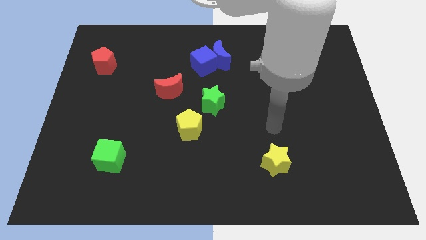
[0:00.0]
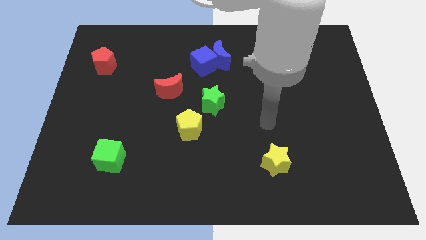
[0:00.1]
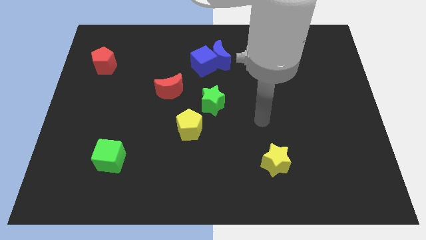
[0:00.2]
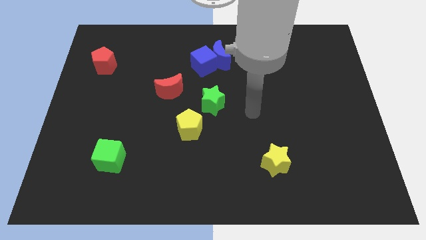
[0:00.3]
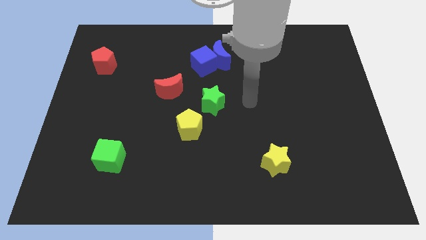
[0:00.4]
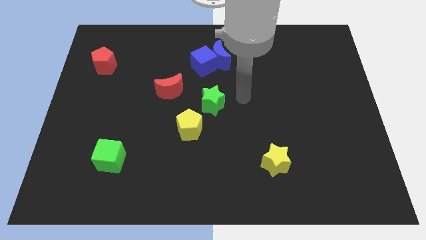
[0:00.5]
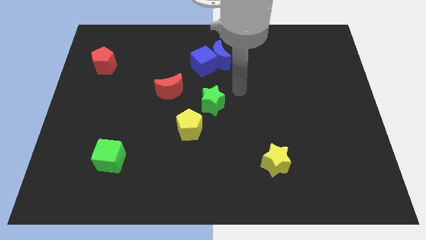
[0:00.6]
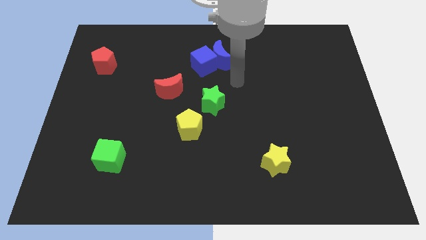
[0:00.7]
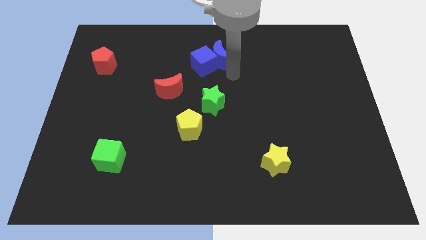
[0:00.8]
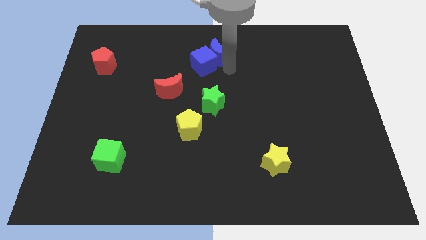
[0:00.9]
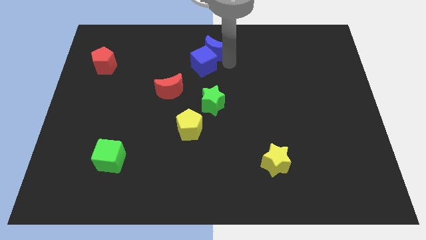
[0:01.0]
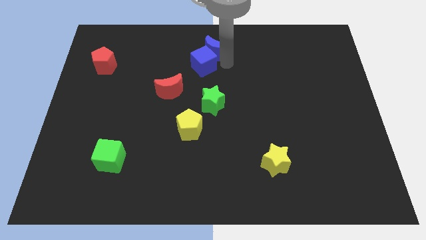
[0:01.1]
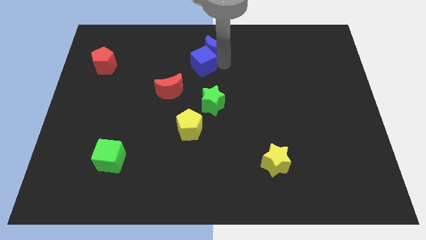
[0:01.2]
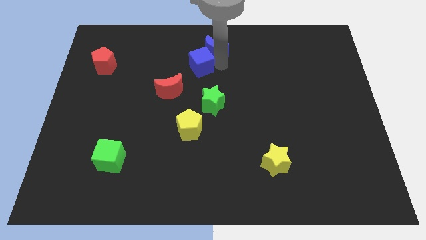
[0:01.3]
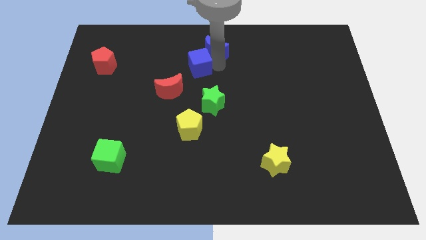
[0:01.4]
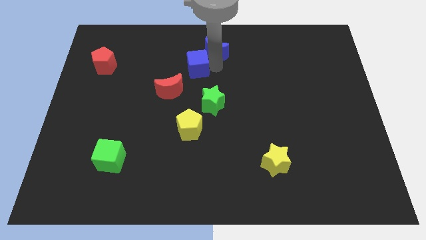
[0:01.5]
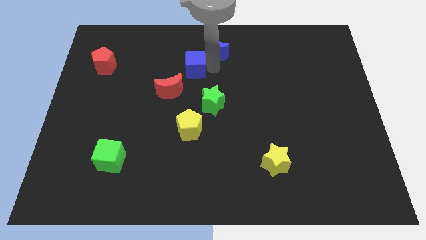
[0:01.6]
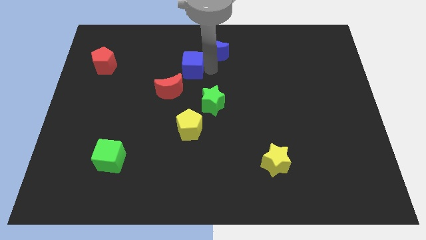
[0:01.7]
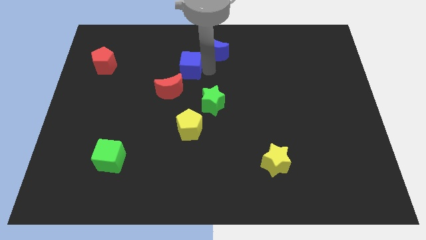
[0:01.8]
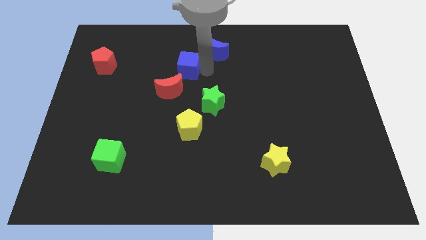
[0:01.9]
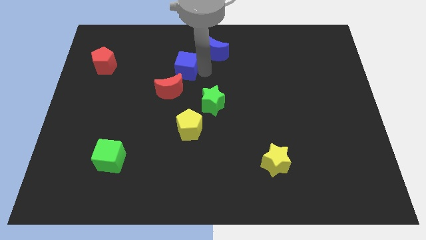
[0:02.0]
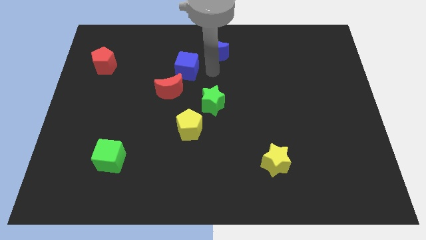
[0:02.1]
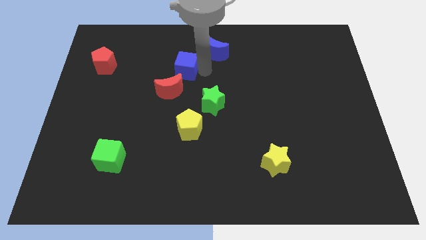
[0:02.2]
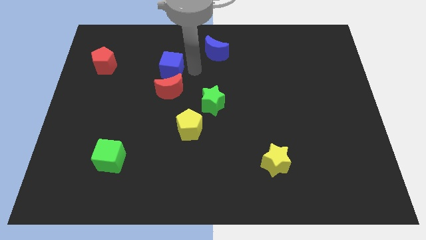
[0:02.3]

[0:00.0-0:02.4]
slightly move the blue cube left

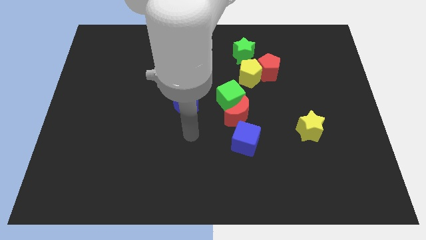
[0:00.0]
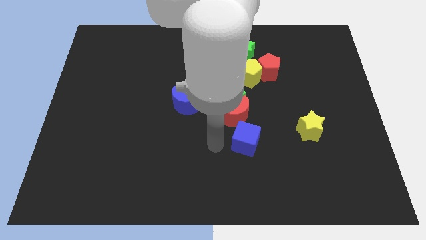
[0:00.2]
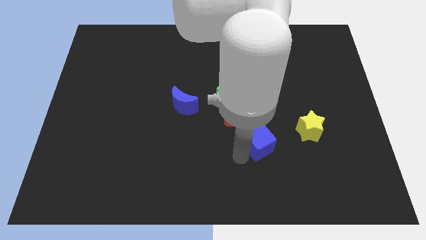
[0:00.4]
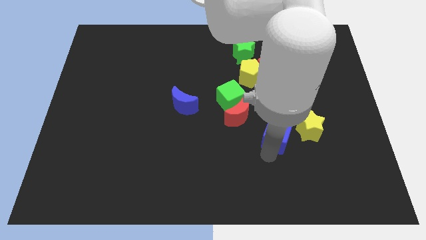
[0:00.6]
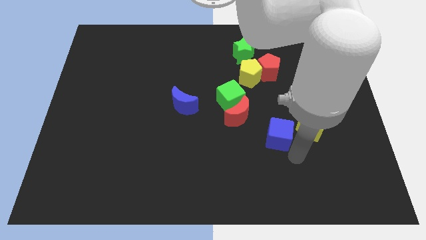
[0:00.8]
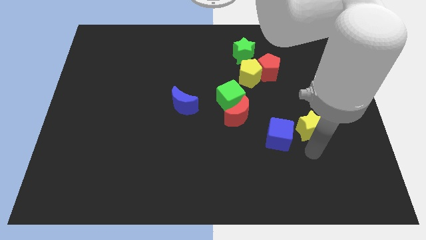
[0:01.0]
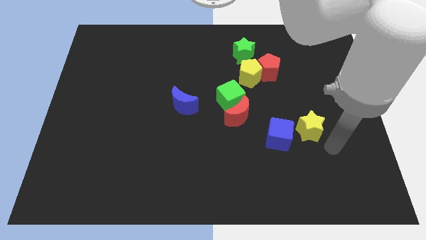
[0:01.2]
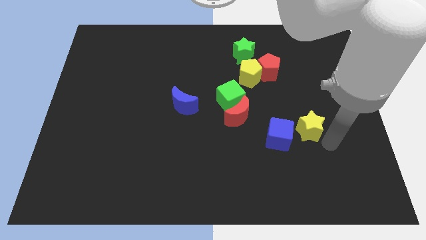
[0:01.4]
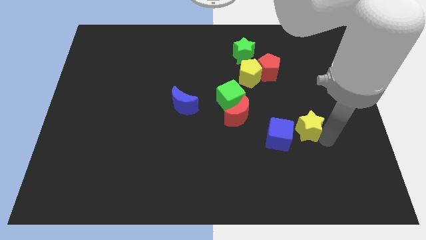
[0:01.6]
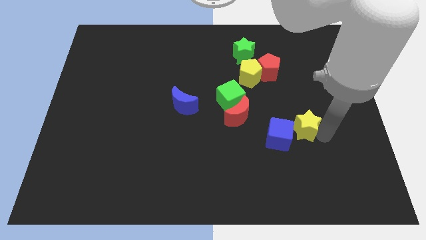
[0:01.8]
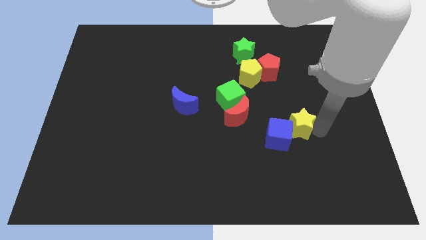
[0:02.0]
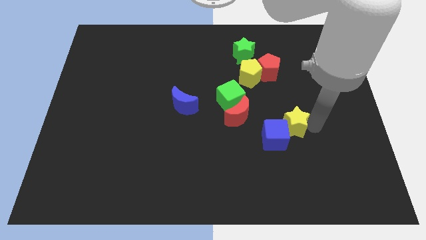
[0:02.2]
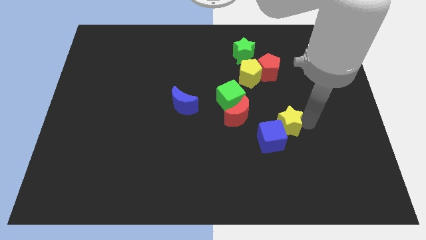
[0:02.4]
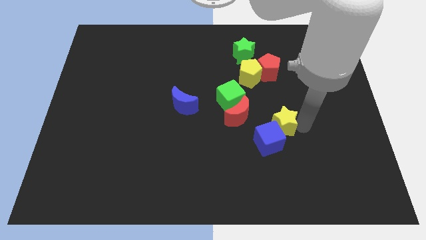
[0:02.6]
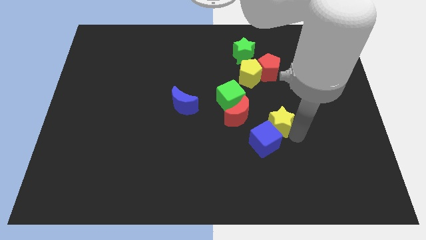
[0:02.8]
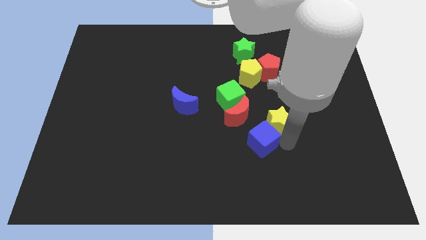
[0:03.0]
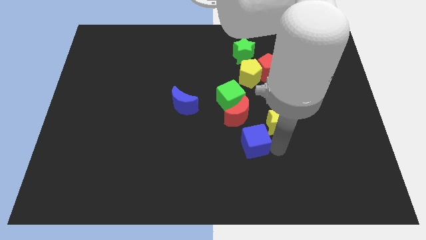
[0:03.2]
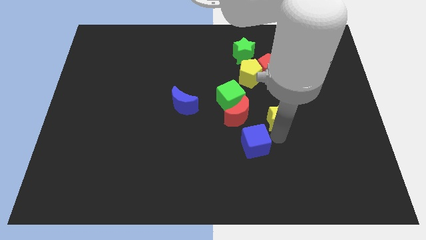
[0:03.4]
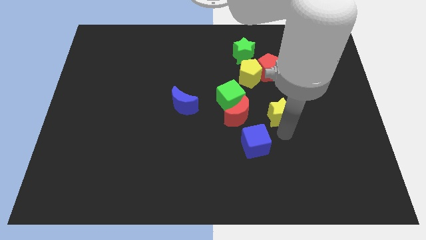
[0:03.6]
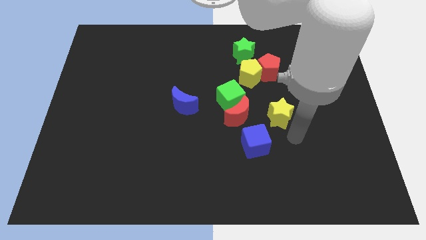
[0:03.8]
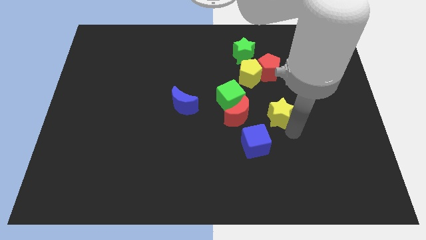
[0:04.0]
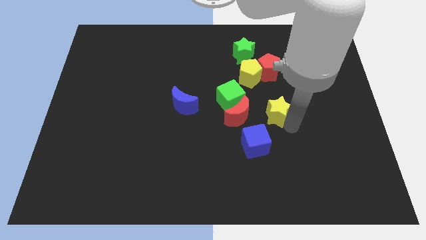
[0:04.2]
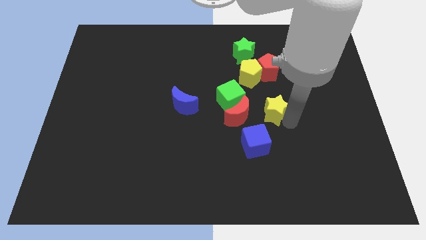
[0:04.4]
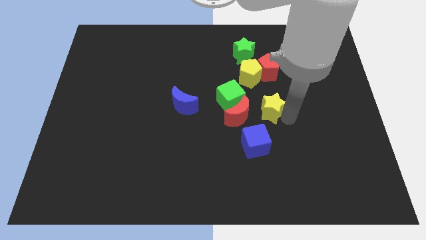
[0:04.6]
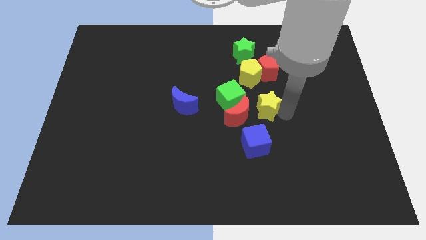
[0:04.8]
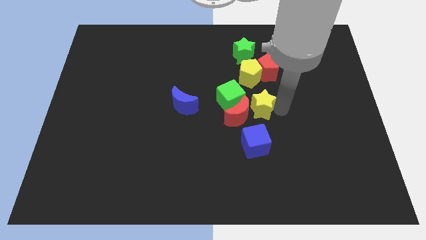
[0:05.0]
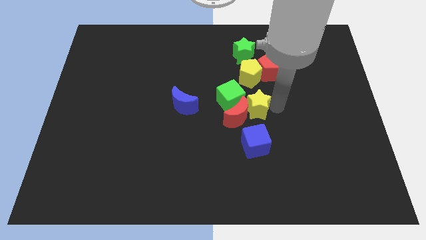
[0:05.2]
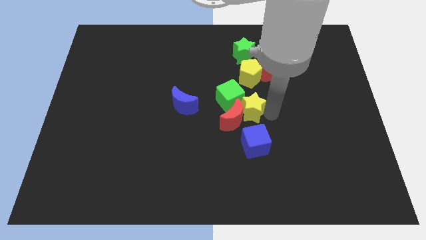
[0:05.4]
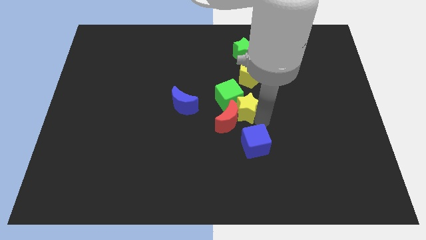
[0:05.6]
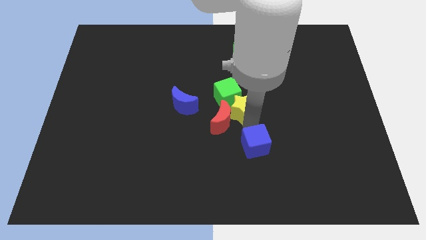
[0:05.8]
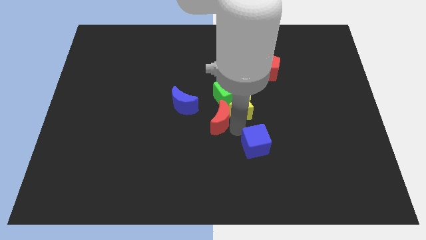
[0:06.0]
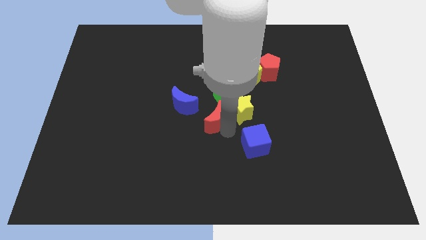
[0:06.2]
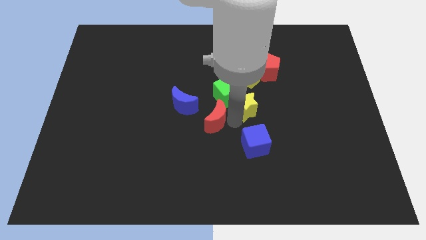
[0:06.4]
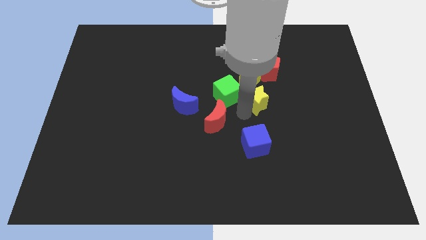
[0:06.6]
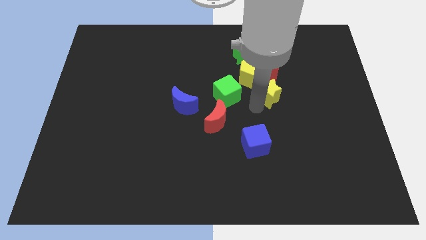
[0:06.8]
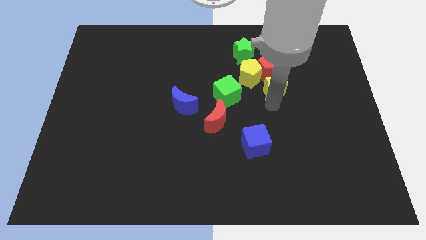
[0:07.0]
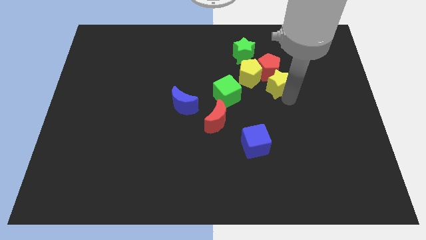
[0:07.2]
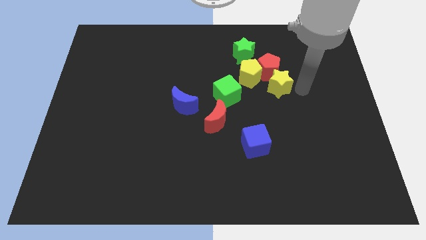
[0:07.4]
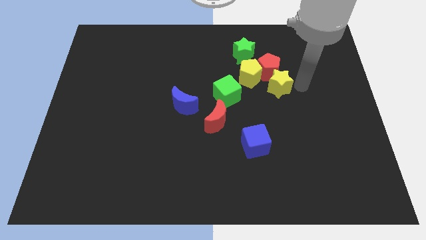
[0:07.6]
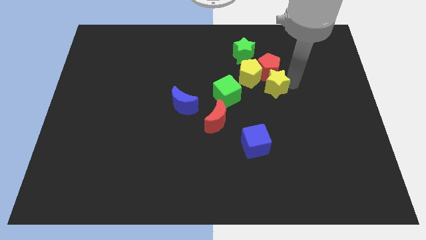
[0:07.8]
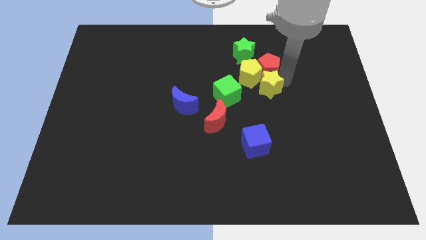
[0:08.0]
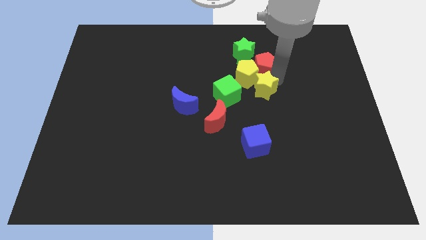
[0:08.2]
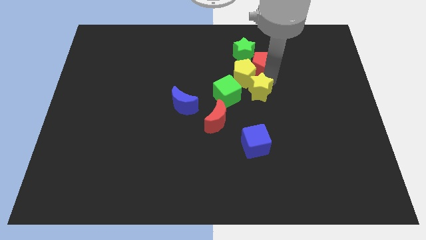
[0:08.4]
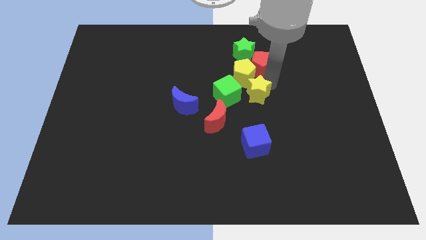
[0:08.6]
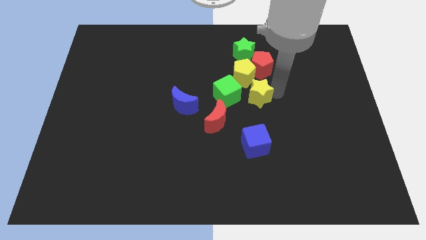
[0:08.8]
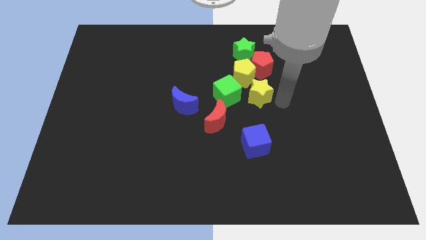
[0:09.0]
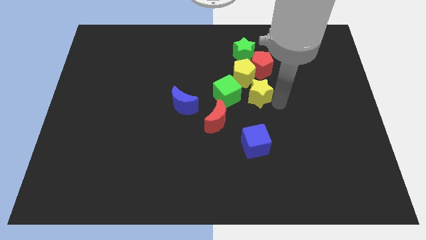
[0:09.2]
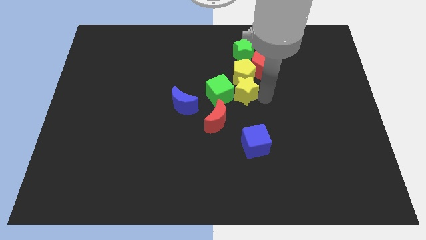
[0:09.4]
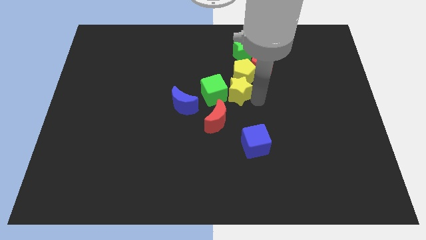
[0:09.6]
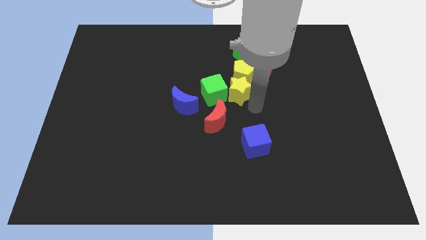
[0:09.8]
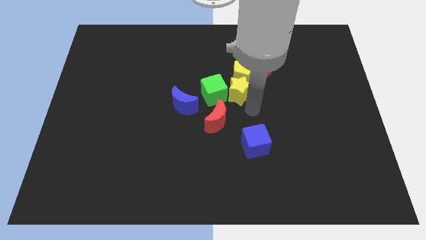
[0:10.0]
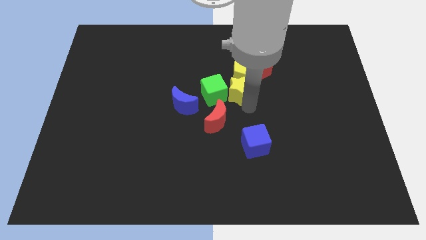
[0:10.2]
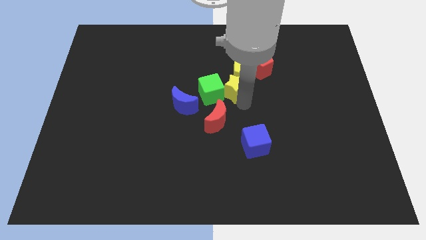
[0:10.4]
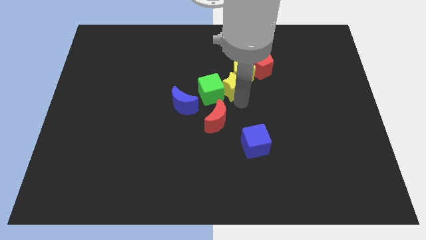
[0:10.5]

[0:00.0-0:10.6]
slide the yellow star up and then to the left

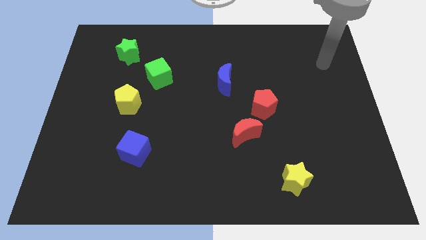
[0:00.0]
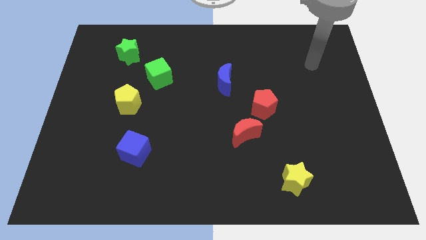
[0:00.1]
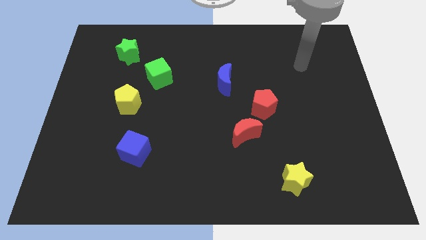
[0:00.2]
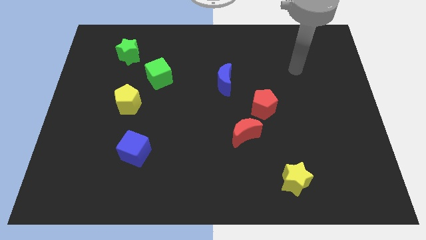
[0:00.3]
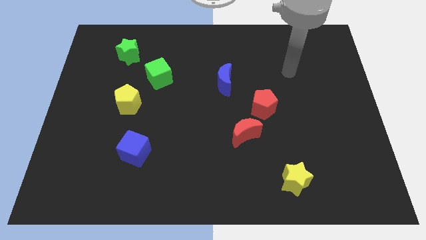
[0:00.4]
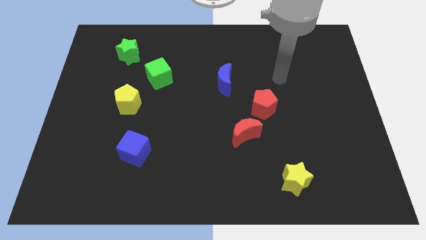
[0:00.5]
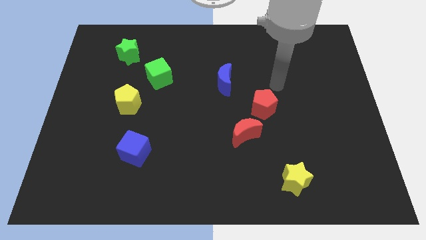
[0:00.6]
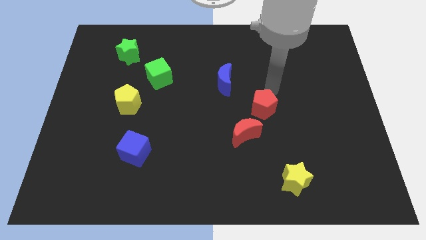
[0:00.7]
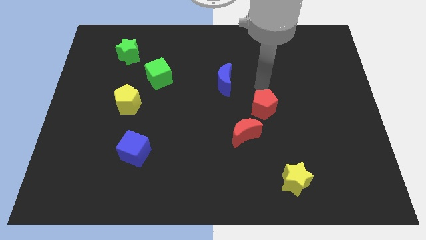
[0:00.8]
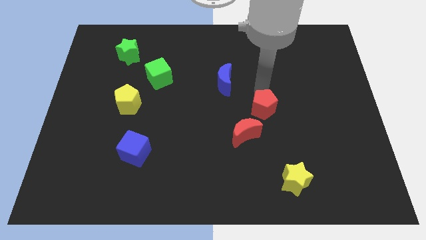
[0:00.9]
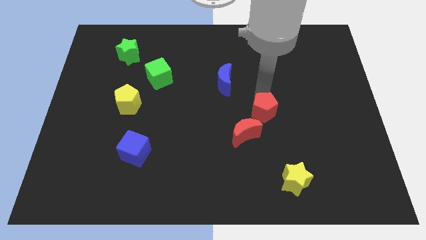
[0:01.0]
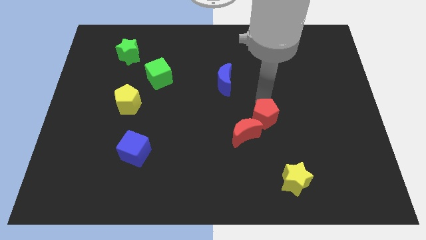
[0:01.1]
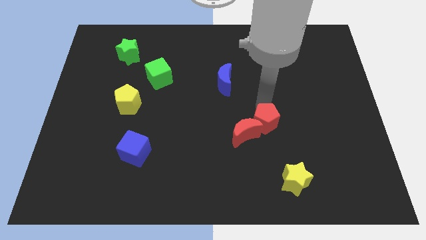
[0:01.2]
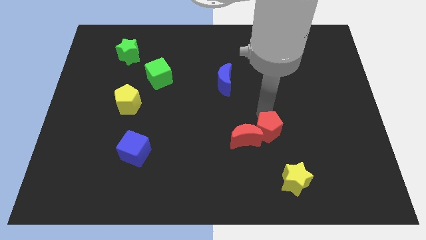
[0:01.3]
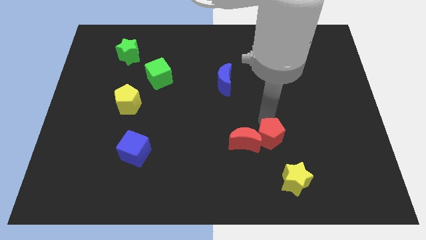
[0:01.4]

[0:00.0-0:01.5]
move the red pentagon a little down
